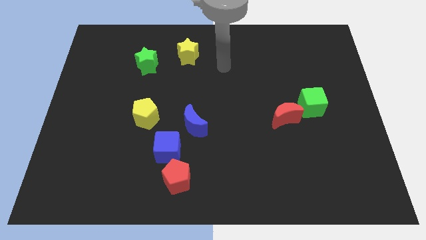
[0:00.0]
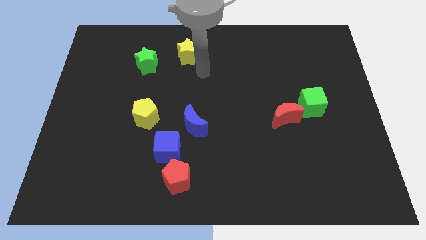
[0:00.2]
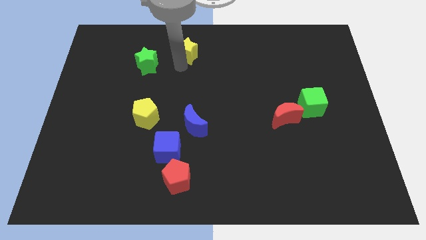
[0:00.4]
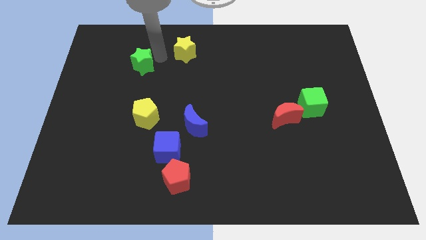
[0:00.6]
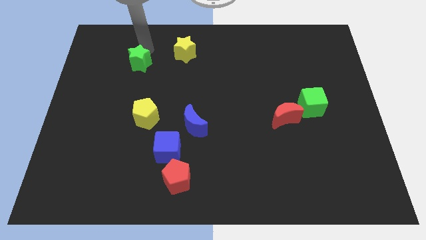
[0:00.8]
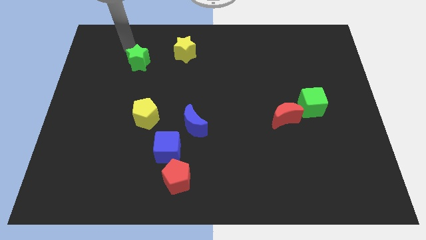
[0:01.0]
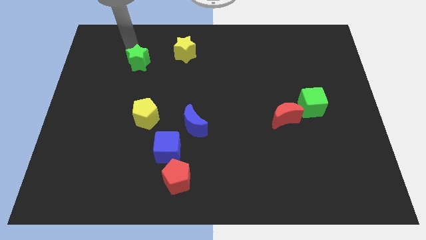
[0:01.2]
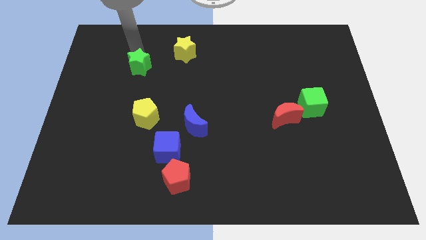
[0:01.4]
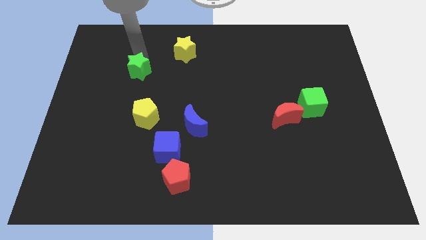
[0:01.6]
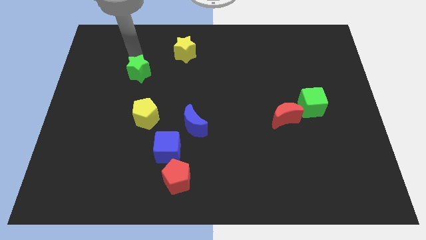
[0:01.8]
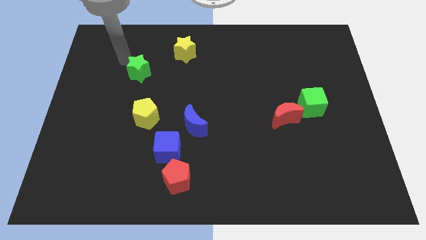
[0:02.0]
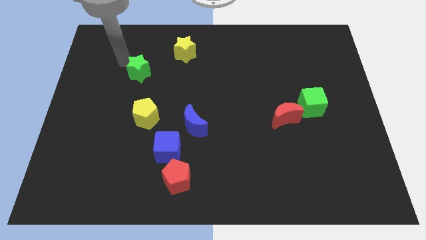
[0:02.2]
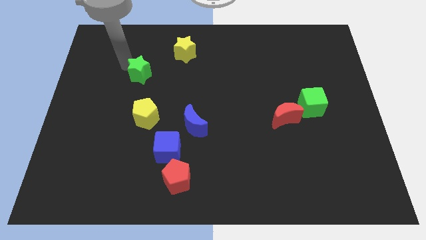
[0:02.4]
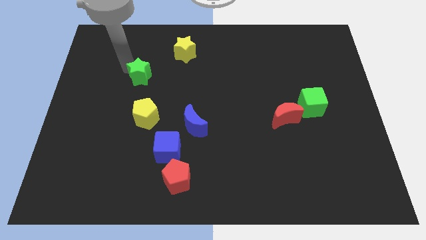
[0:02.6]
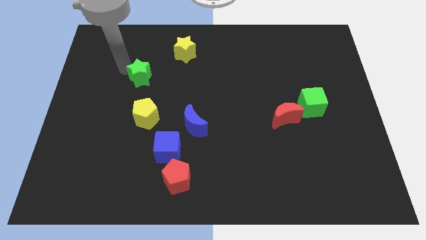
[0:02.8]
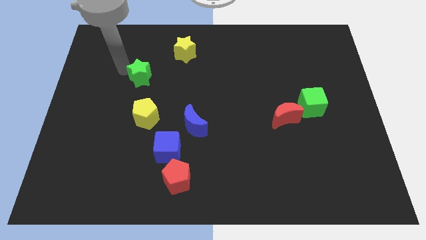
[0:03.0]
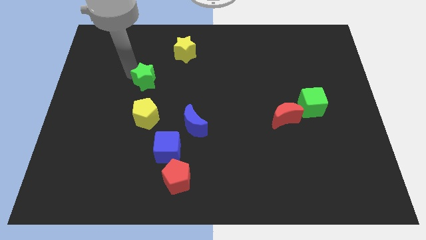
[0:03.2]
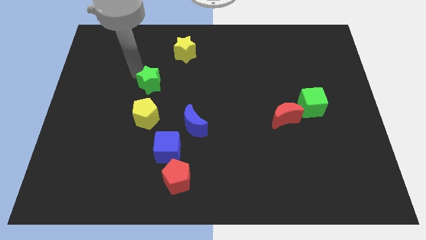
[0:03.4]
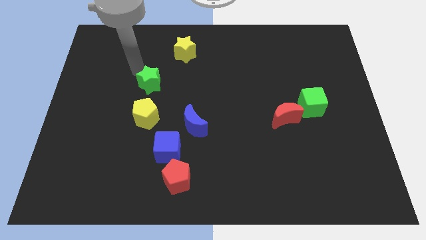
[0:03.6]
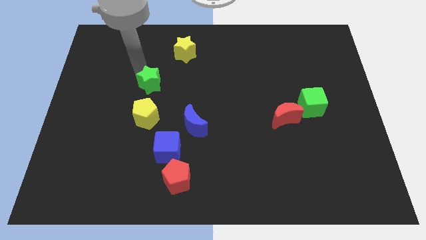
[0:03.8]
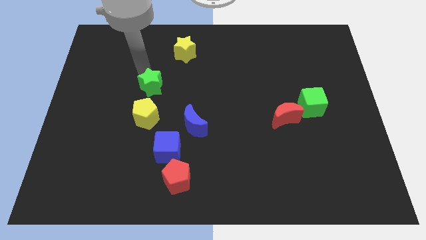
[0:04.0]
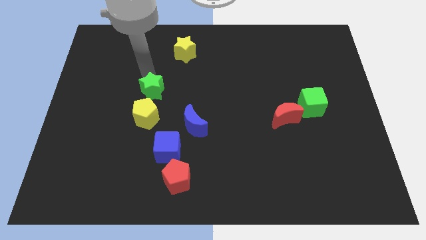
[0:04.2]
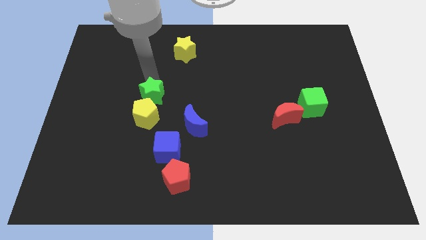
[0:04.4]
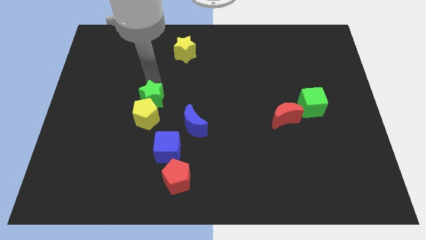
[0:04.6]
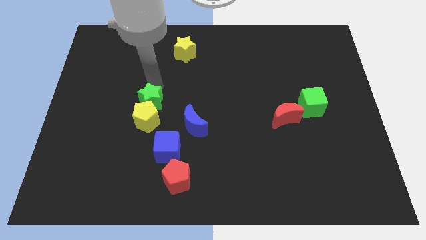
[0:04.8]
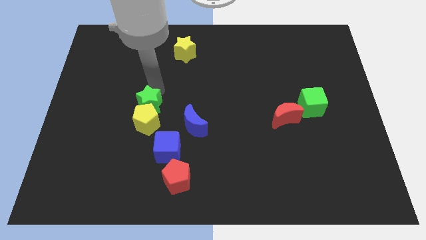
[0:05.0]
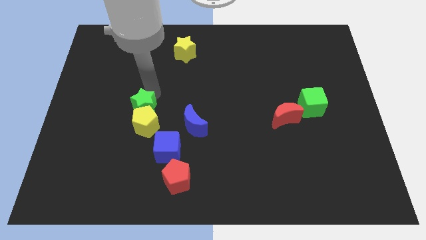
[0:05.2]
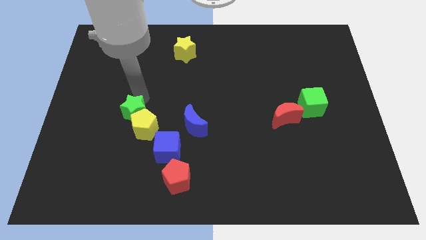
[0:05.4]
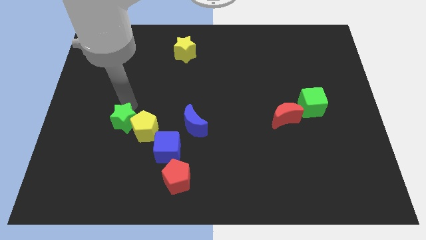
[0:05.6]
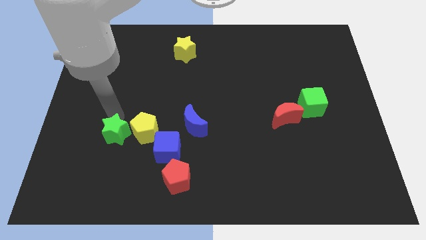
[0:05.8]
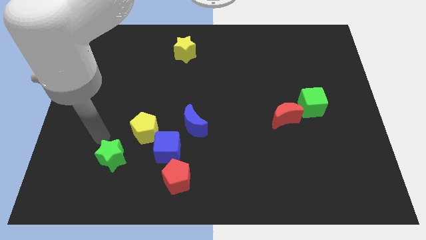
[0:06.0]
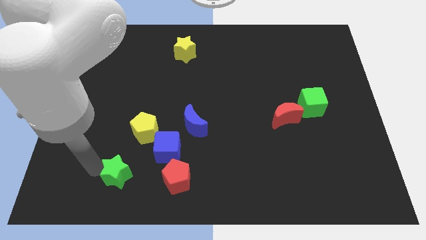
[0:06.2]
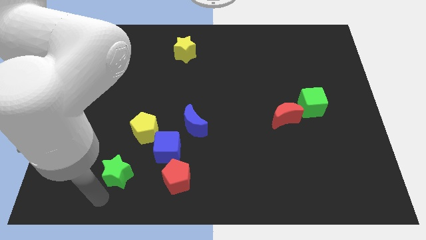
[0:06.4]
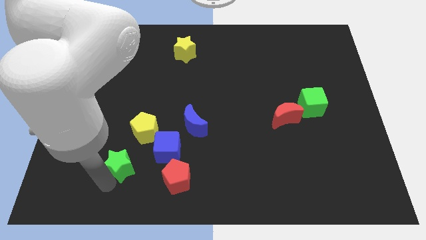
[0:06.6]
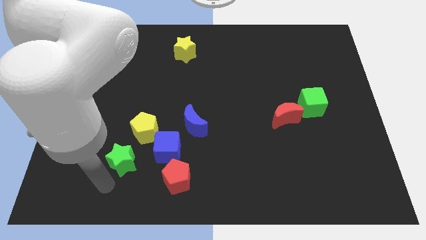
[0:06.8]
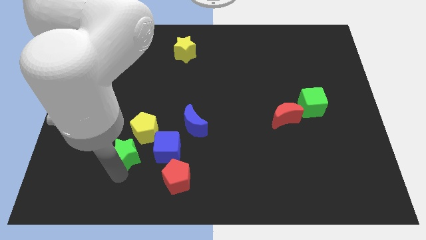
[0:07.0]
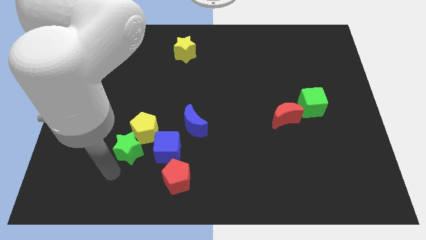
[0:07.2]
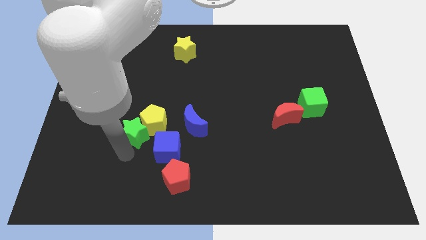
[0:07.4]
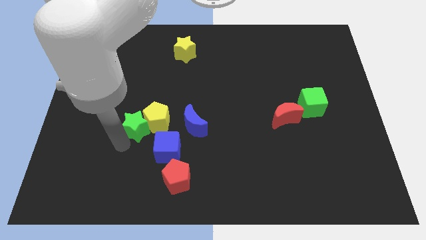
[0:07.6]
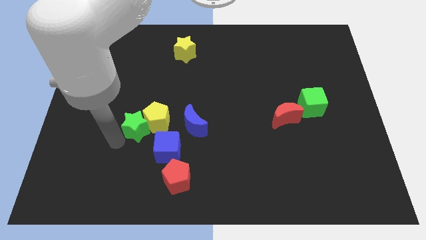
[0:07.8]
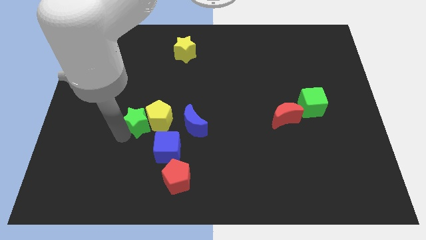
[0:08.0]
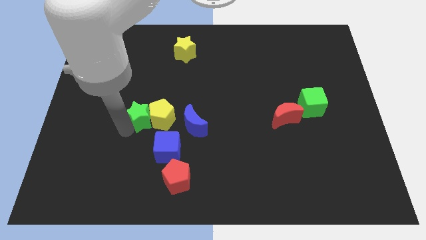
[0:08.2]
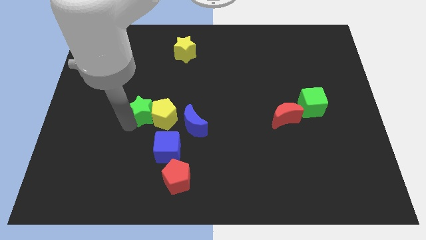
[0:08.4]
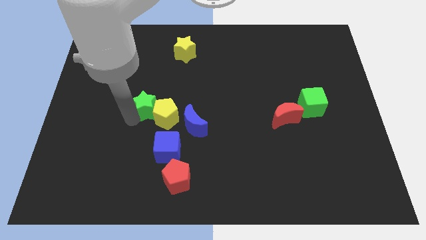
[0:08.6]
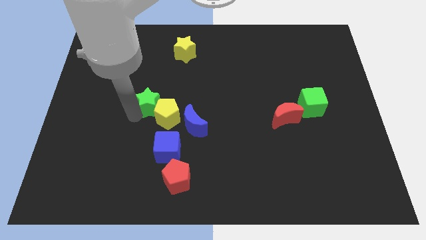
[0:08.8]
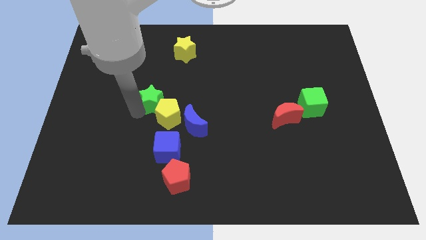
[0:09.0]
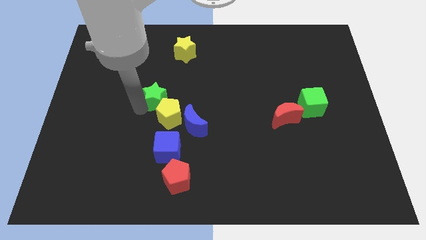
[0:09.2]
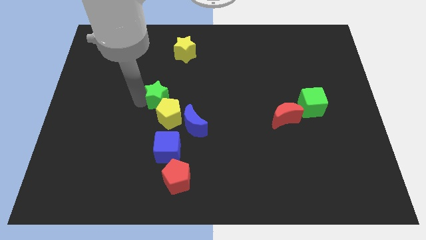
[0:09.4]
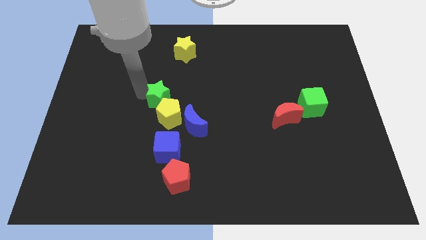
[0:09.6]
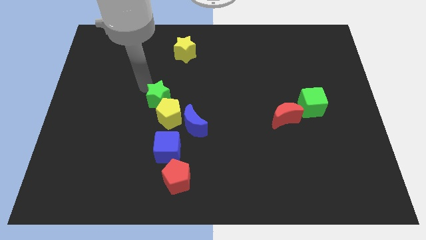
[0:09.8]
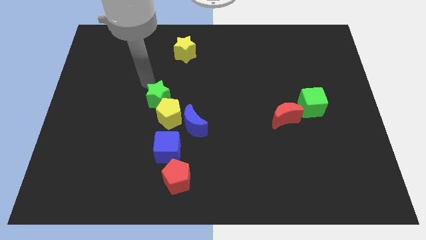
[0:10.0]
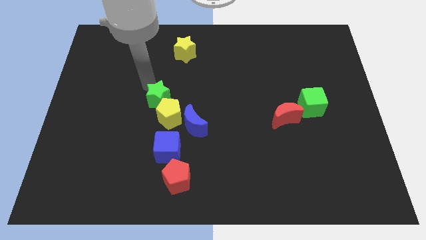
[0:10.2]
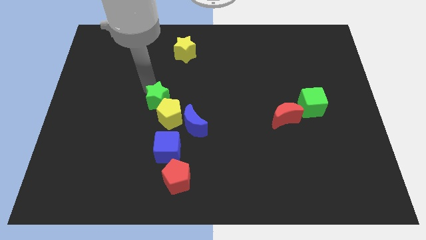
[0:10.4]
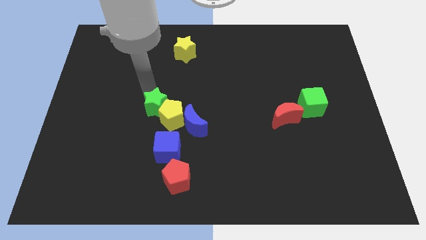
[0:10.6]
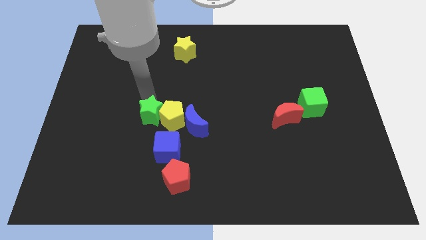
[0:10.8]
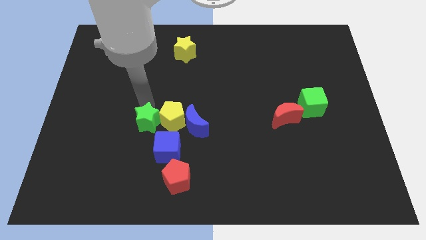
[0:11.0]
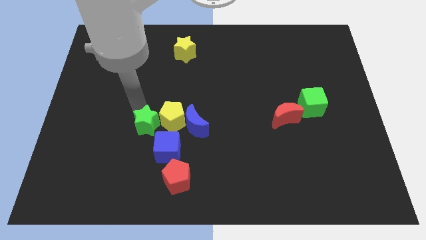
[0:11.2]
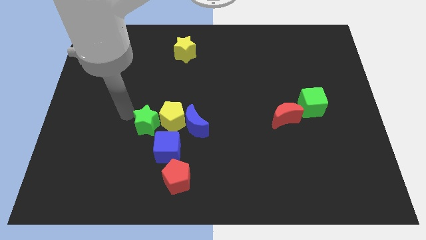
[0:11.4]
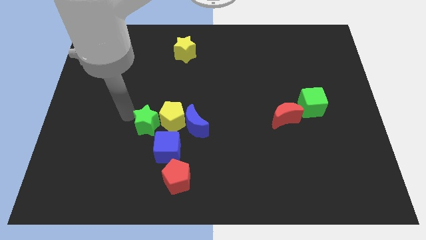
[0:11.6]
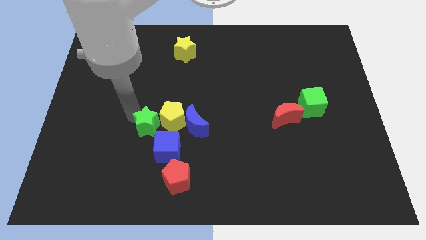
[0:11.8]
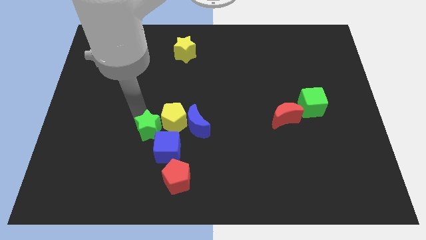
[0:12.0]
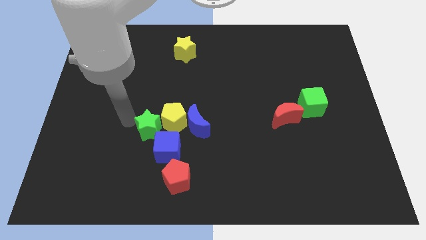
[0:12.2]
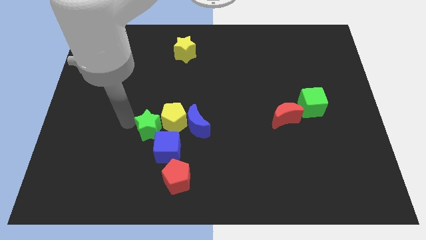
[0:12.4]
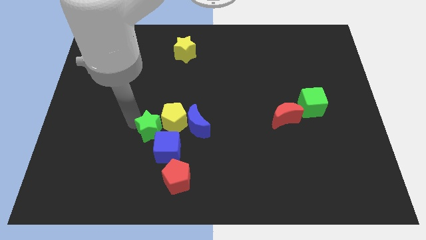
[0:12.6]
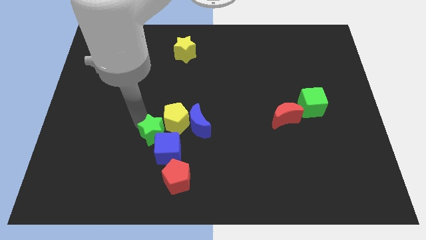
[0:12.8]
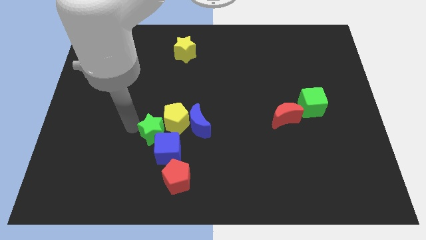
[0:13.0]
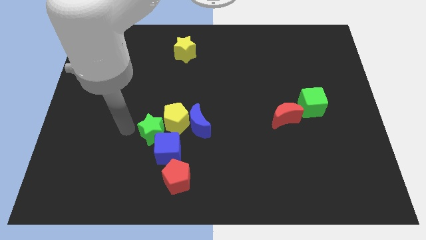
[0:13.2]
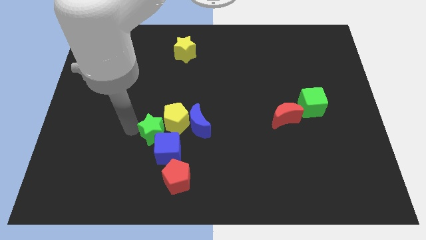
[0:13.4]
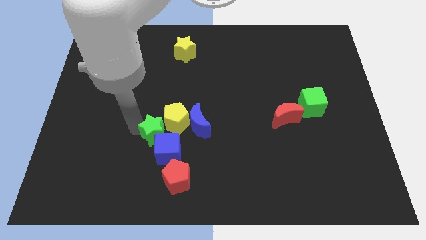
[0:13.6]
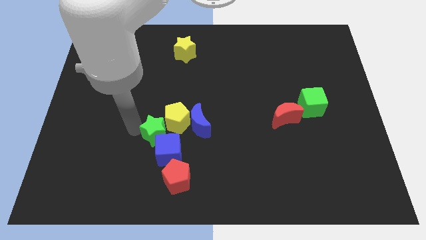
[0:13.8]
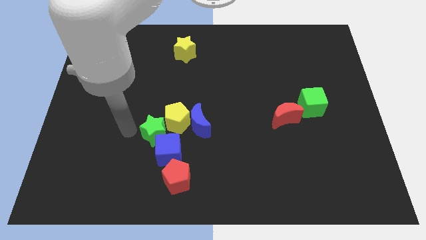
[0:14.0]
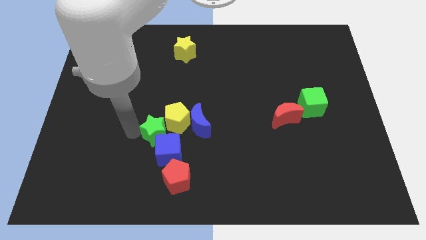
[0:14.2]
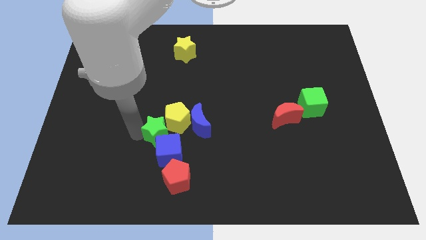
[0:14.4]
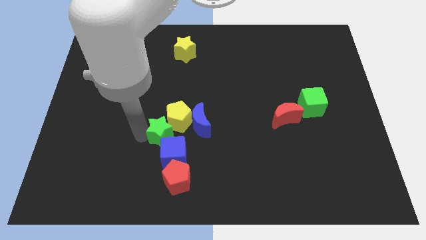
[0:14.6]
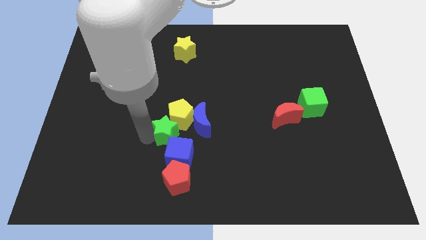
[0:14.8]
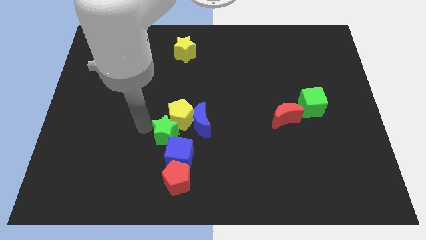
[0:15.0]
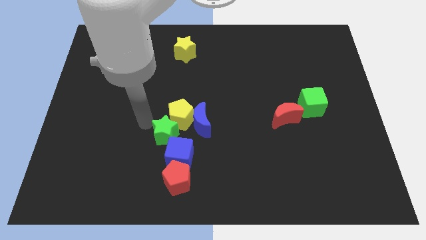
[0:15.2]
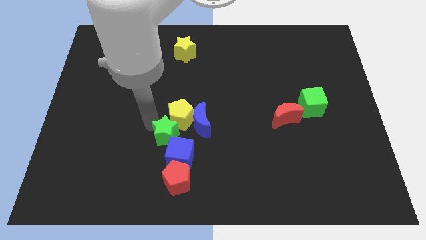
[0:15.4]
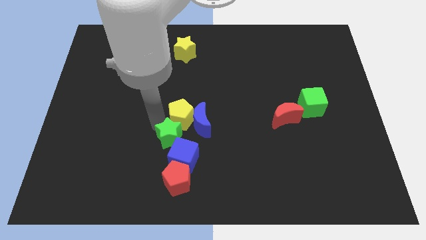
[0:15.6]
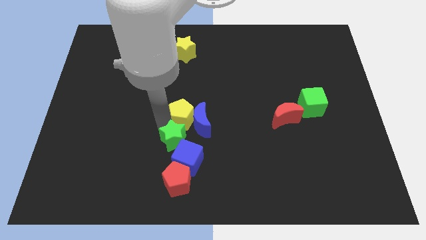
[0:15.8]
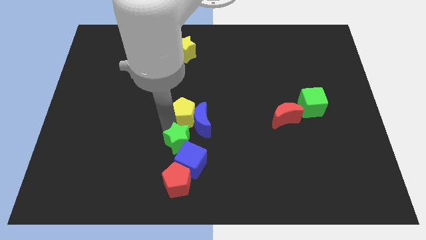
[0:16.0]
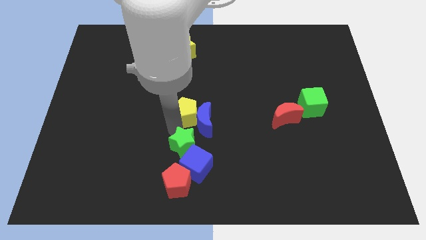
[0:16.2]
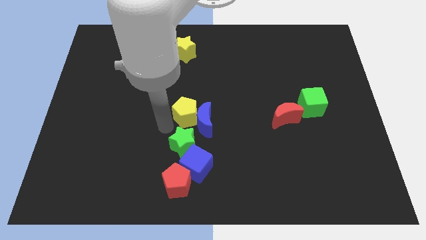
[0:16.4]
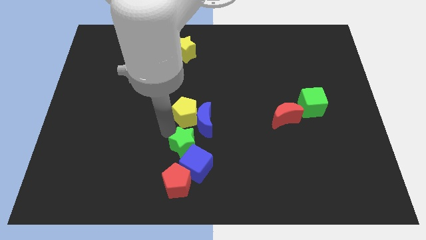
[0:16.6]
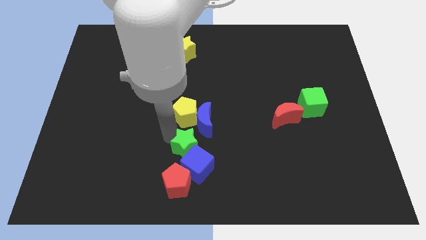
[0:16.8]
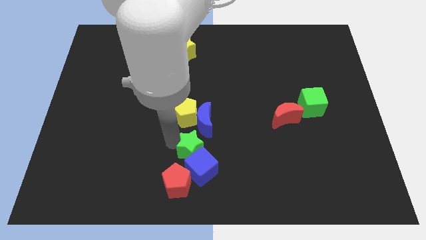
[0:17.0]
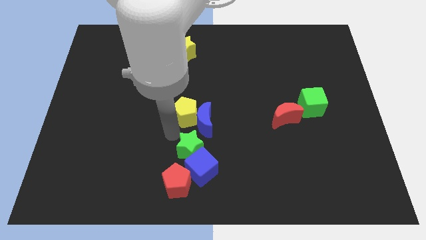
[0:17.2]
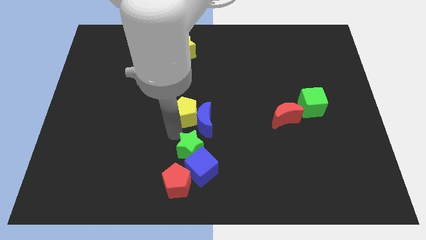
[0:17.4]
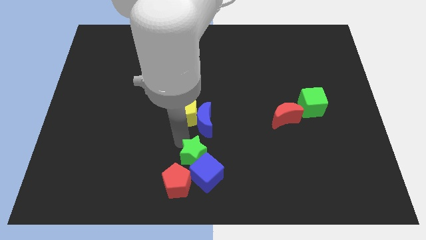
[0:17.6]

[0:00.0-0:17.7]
push the green star to the bottom
